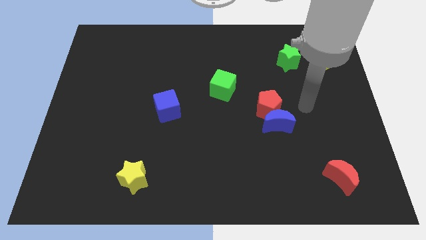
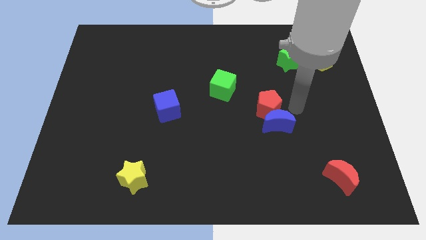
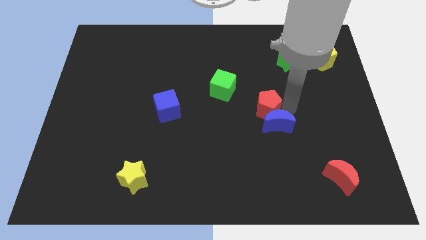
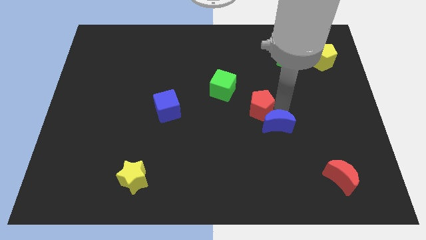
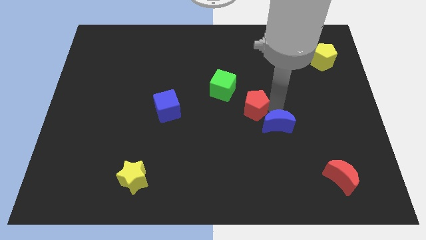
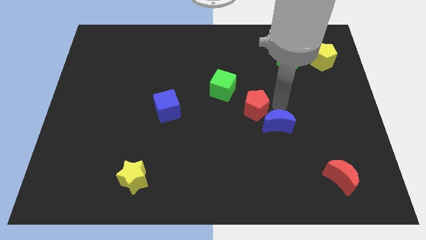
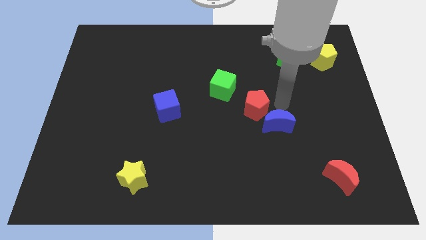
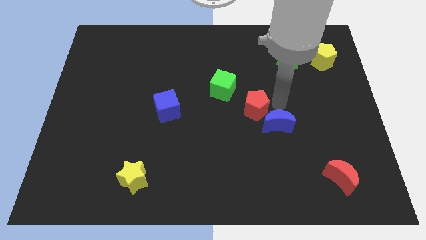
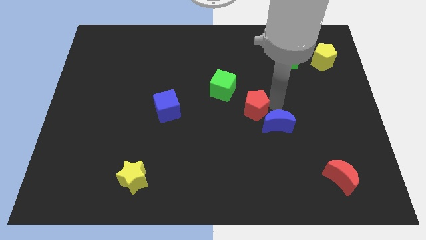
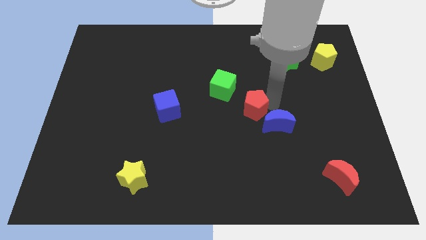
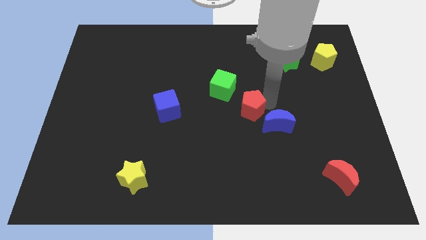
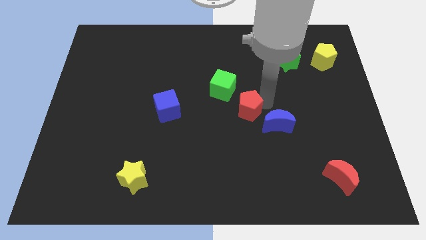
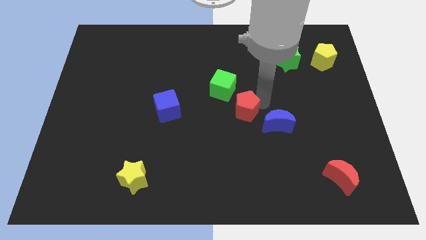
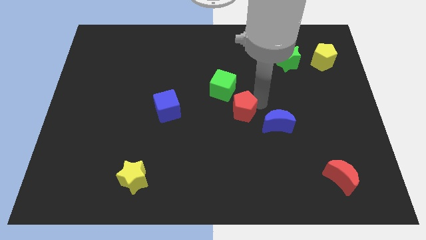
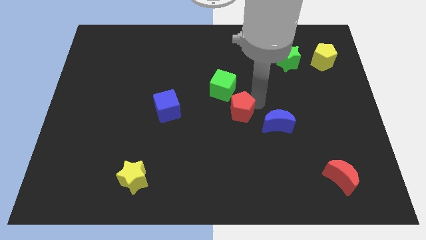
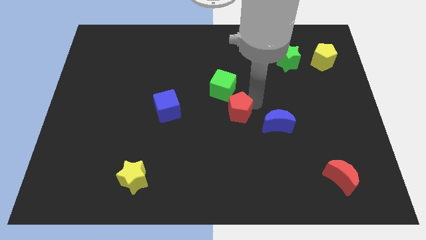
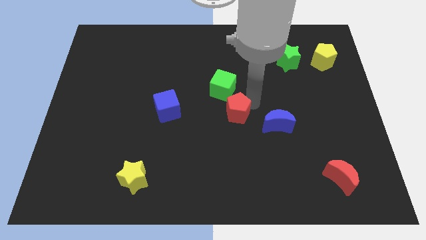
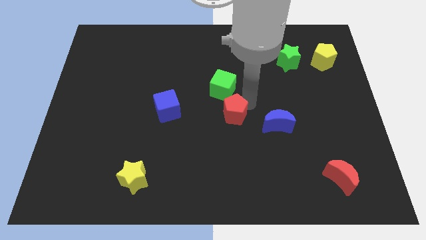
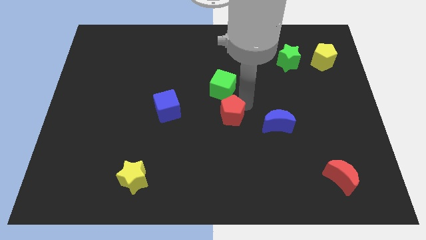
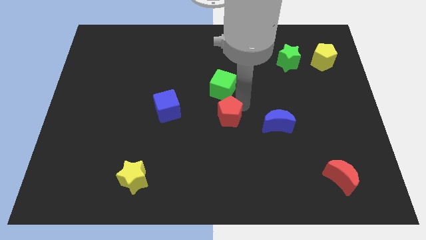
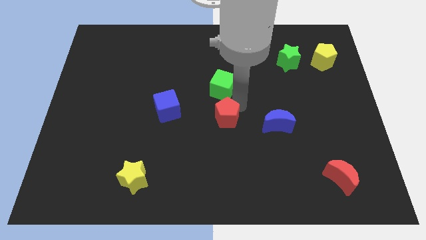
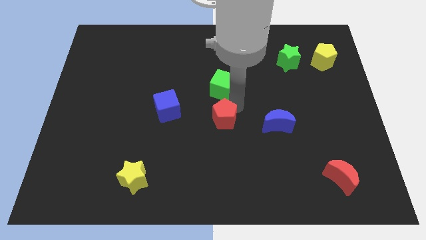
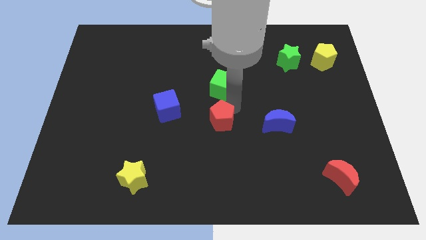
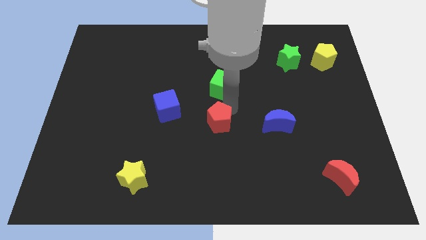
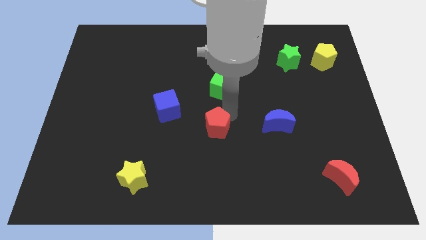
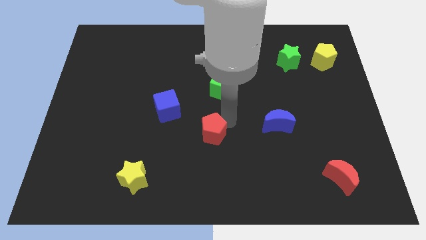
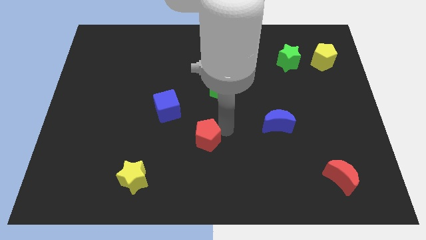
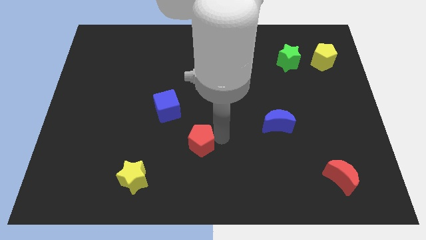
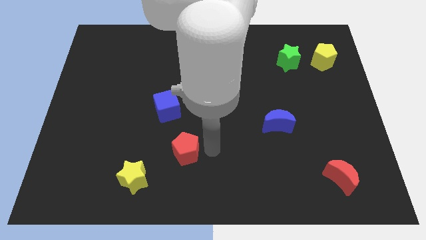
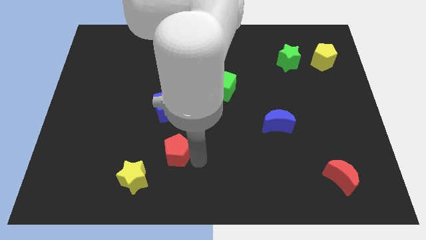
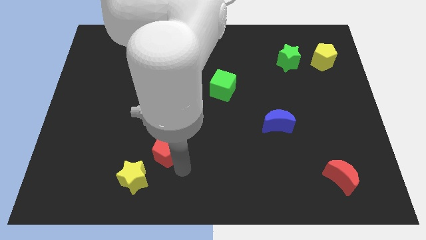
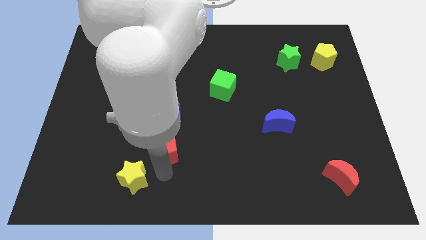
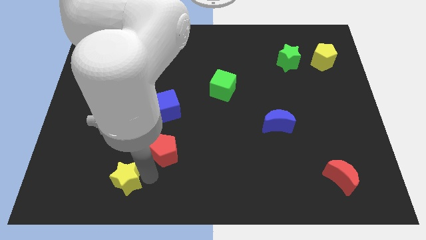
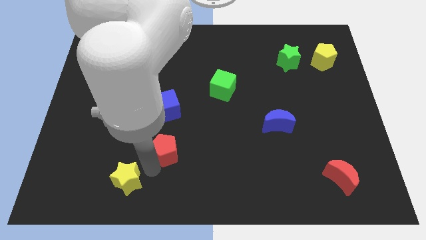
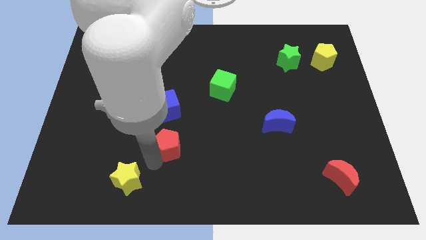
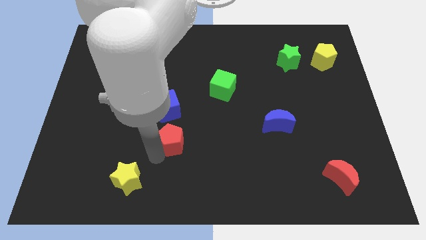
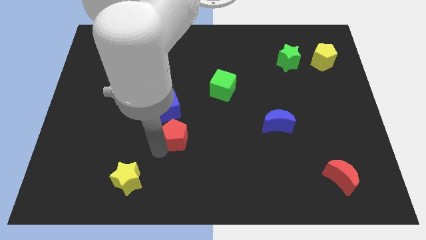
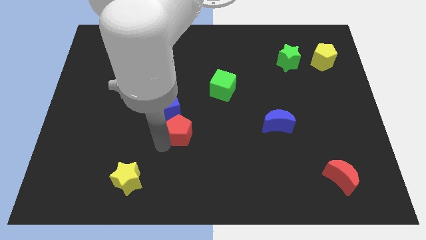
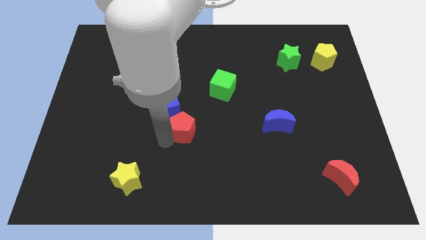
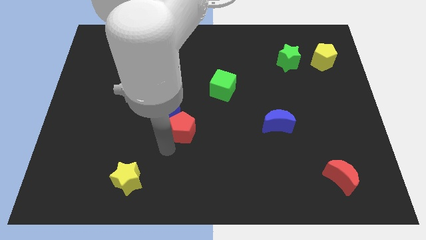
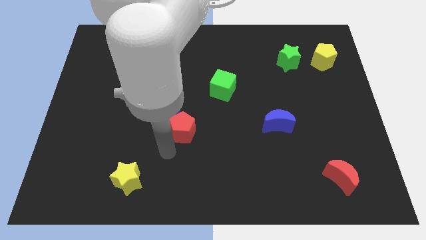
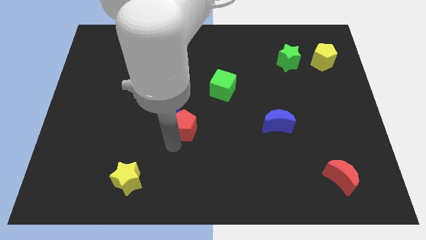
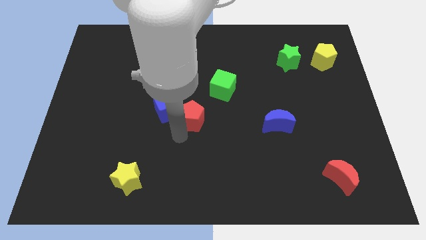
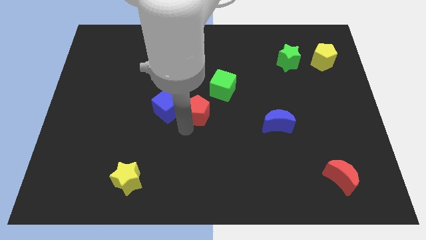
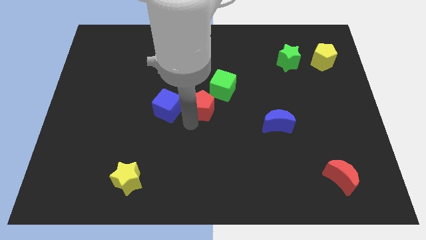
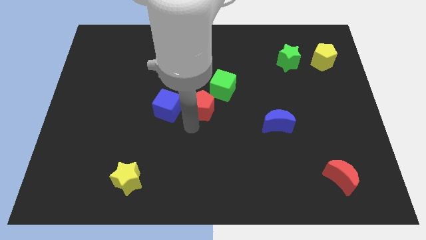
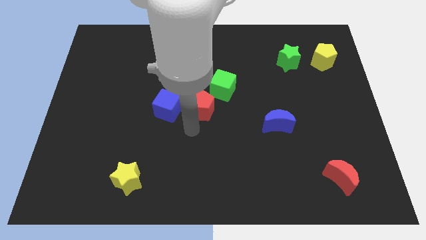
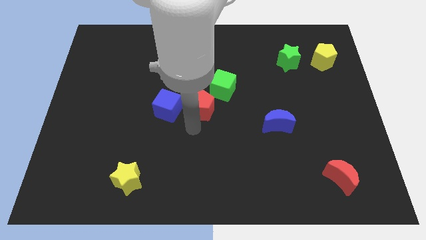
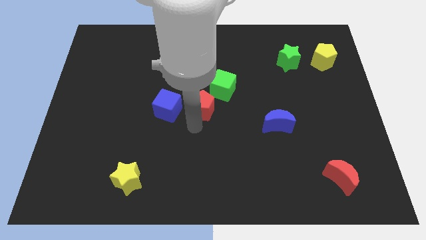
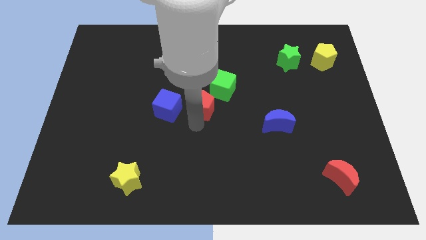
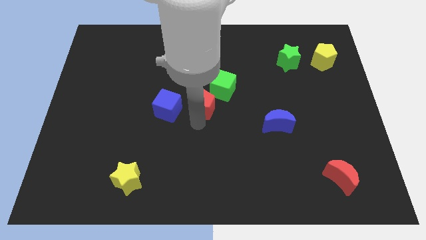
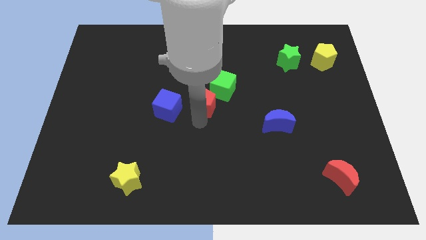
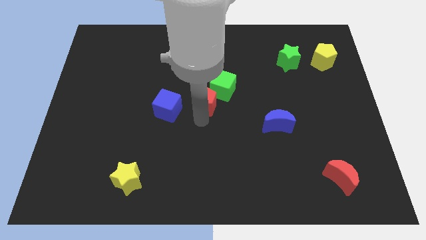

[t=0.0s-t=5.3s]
put the red pentagon left of the green cube

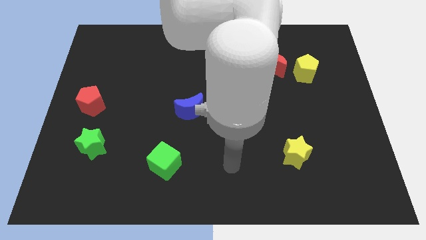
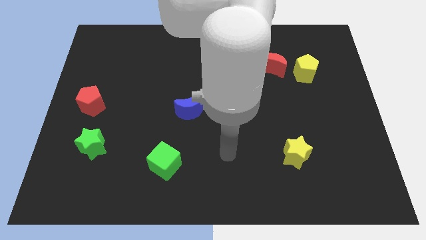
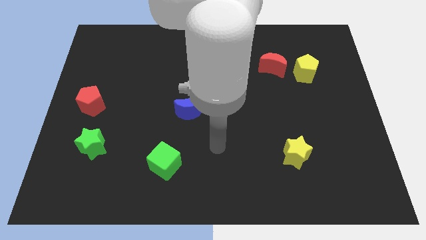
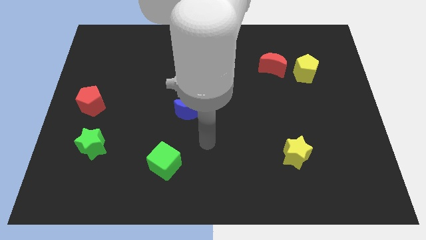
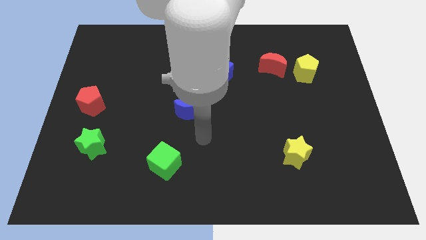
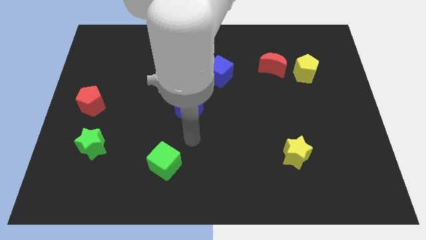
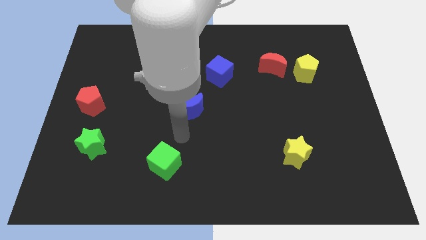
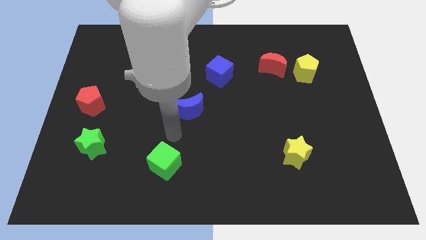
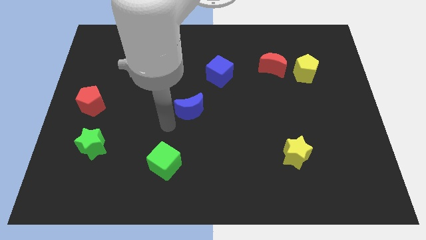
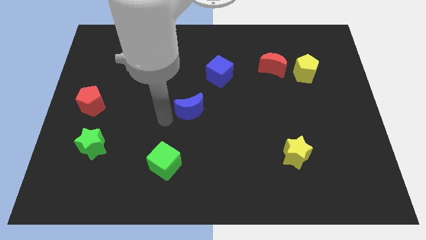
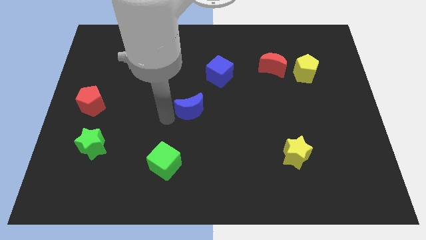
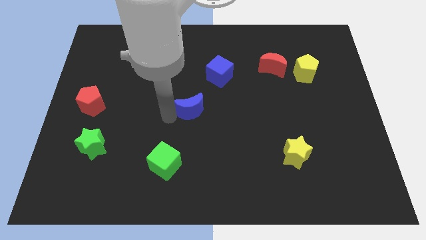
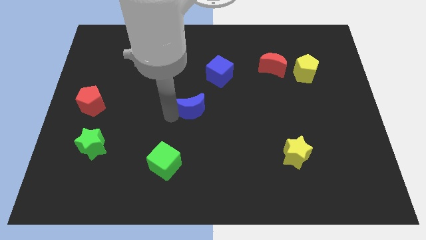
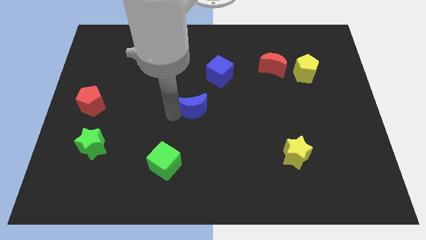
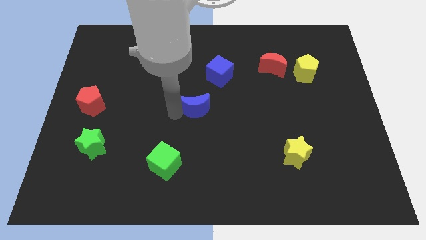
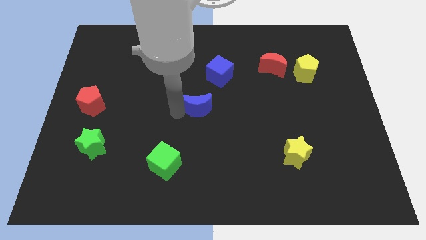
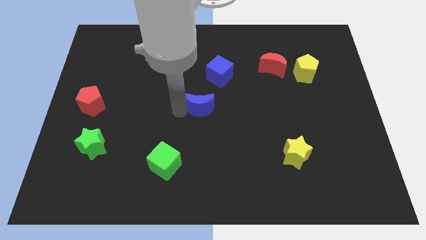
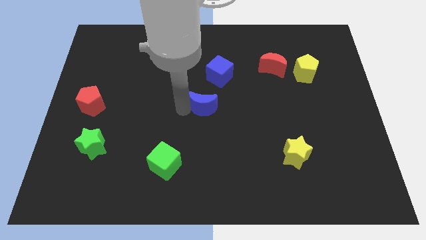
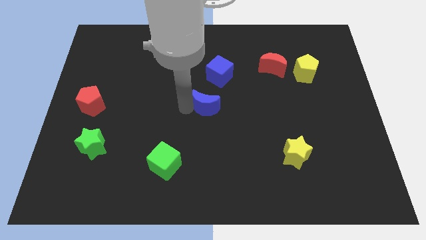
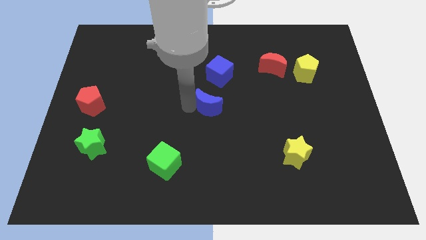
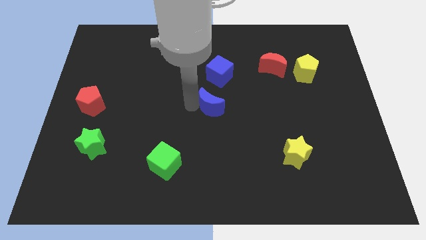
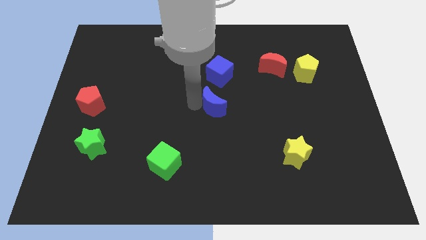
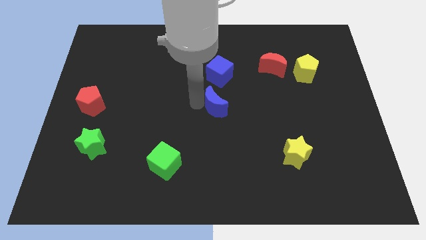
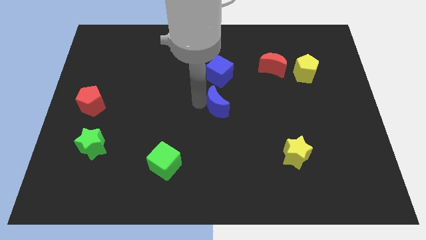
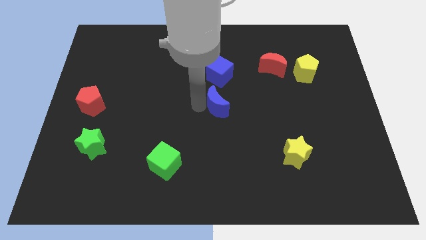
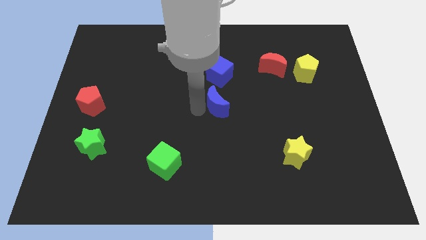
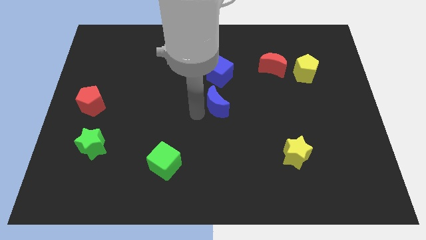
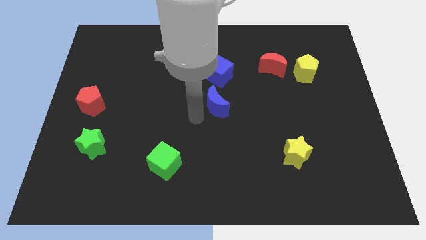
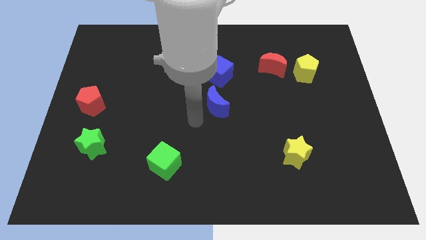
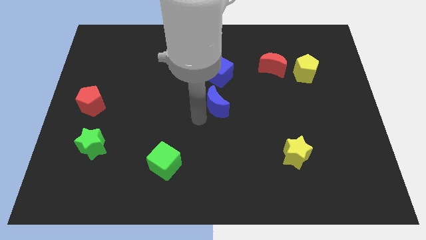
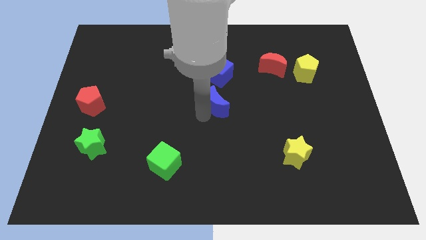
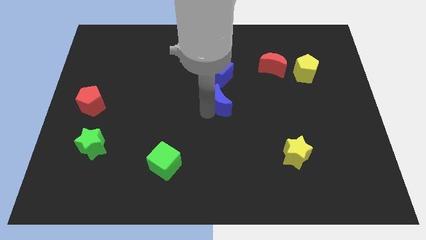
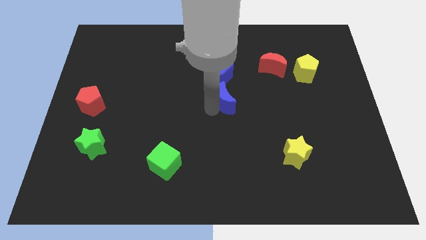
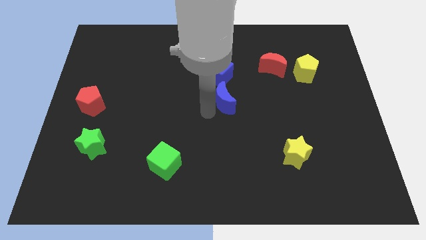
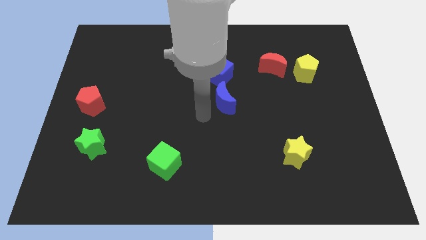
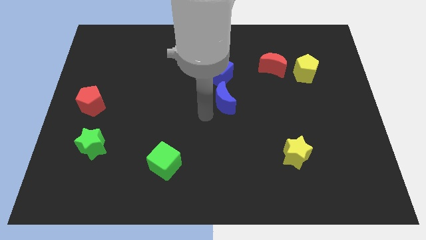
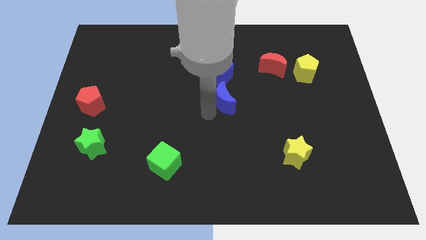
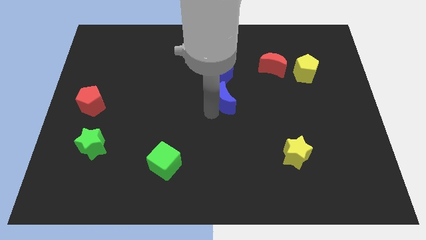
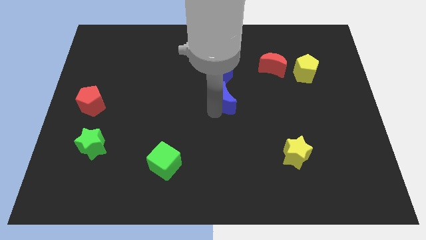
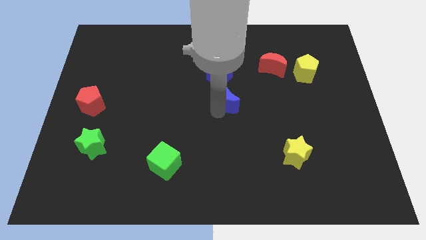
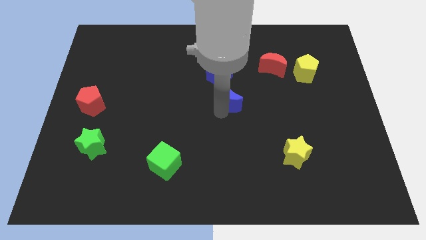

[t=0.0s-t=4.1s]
put the blue moon diagonally down and to the right of the blue cube
